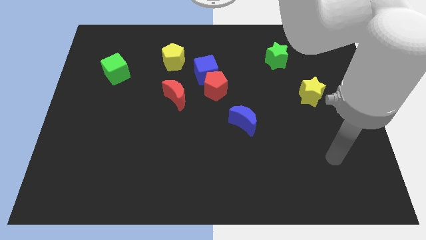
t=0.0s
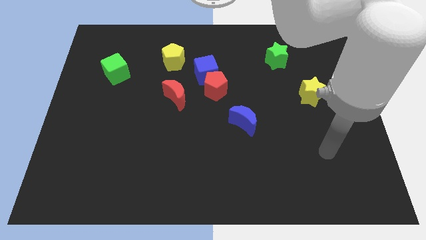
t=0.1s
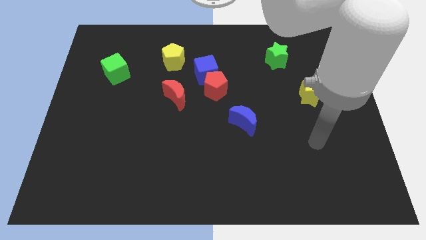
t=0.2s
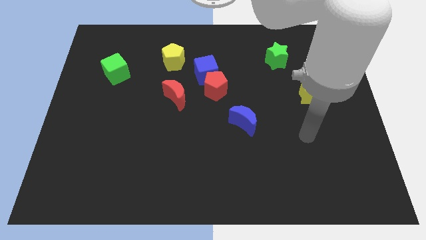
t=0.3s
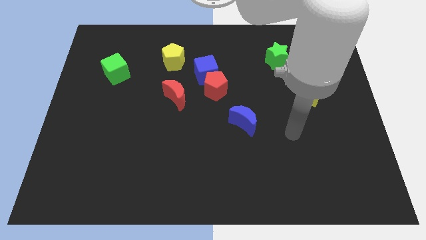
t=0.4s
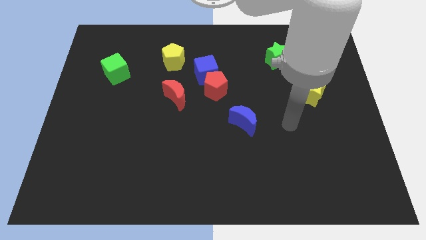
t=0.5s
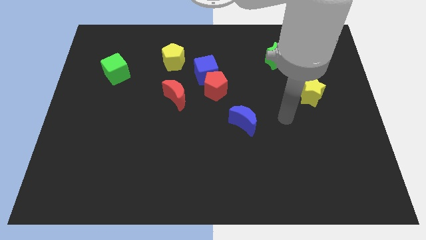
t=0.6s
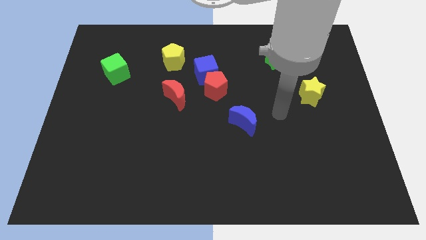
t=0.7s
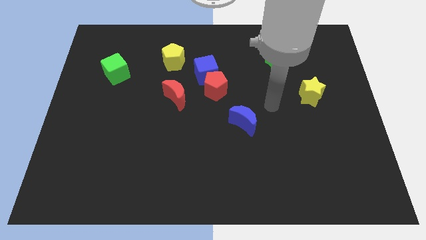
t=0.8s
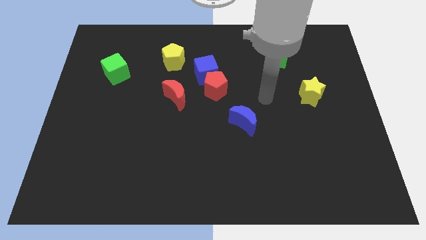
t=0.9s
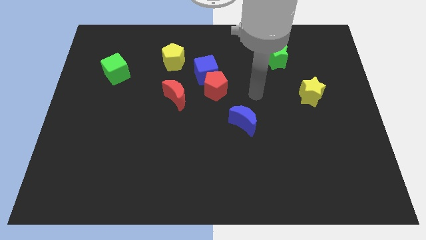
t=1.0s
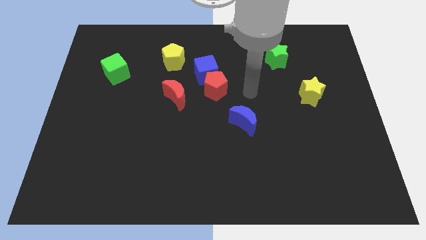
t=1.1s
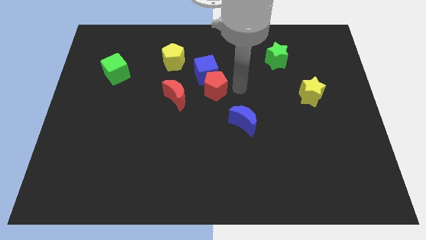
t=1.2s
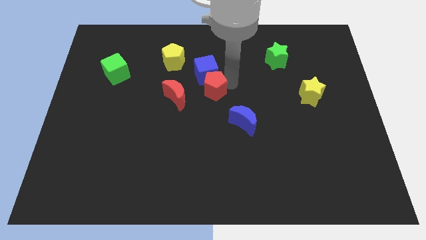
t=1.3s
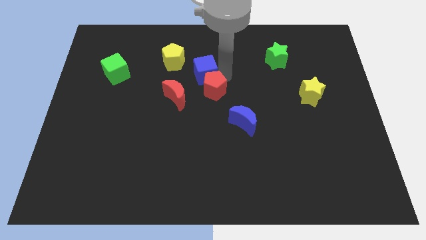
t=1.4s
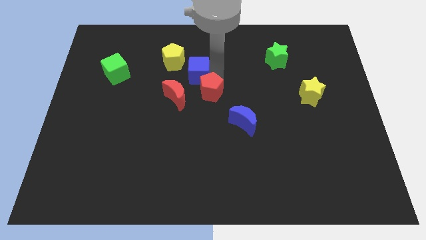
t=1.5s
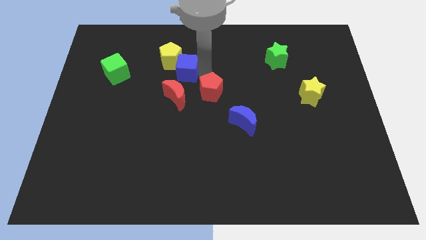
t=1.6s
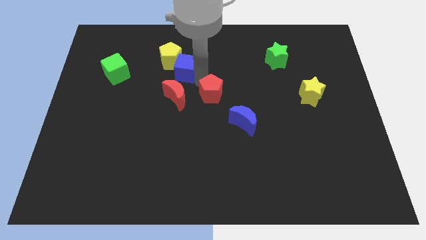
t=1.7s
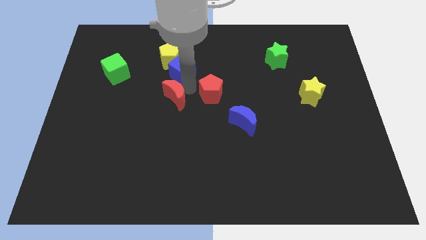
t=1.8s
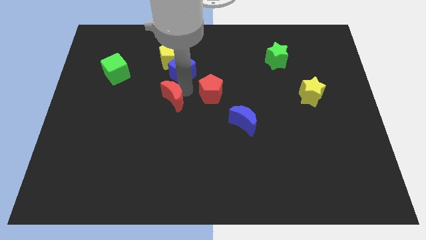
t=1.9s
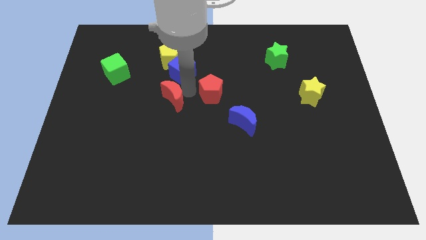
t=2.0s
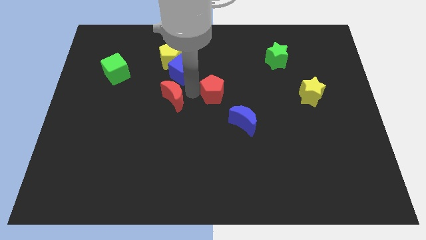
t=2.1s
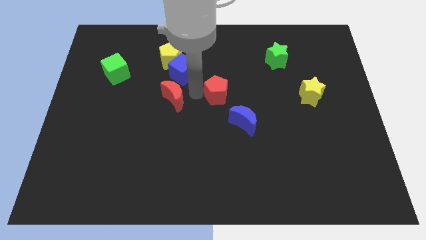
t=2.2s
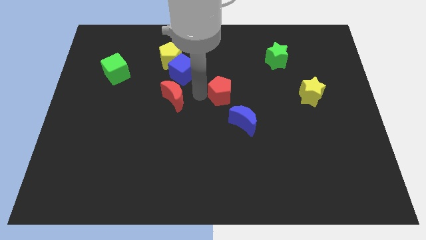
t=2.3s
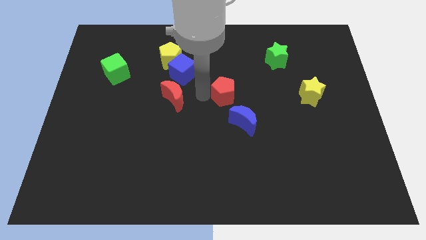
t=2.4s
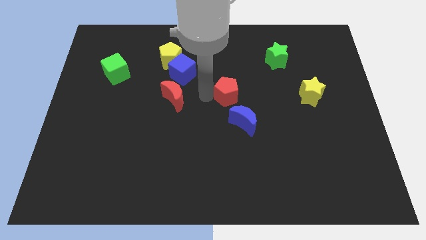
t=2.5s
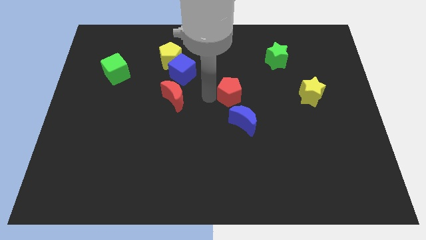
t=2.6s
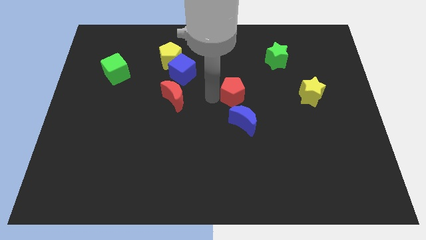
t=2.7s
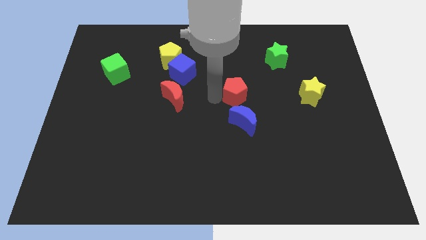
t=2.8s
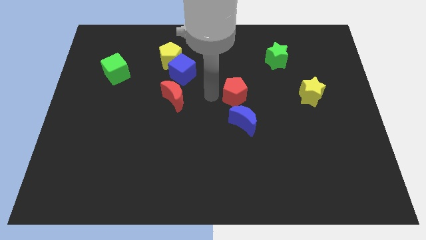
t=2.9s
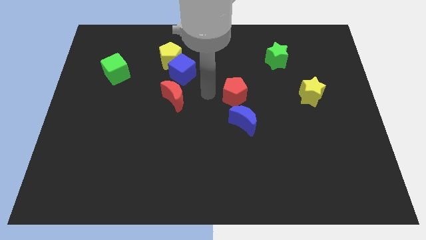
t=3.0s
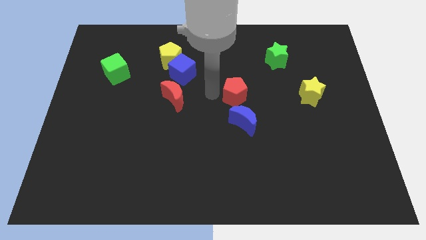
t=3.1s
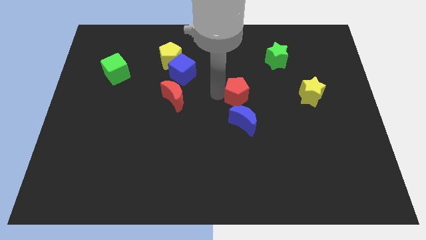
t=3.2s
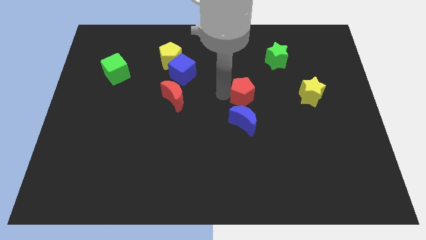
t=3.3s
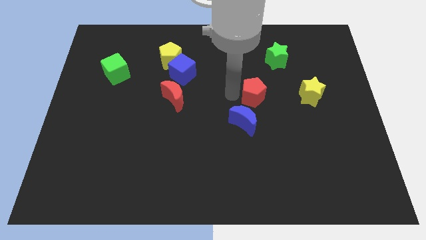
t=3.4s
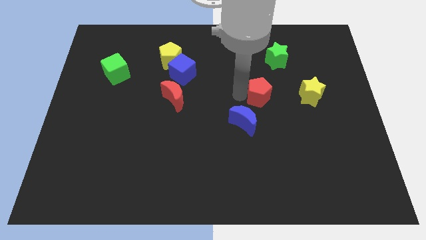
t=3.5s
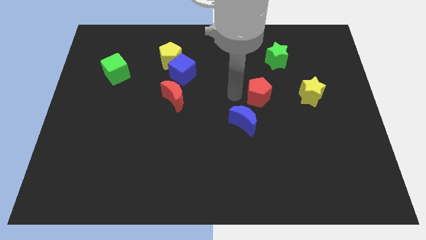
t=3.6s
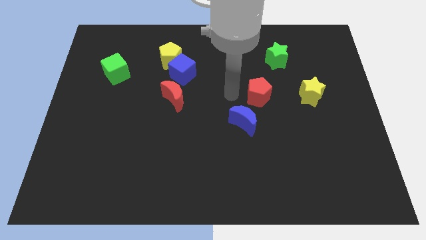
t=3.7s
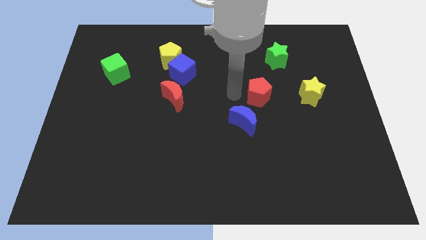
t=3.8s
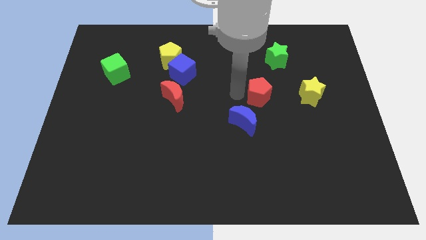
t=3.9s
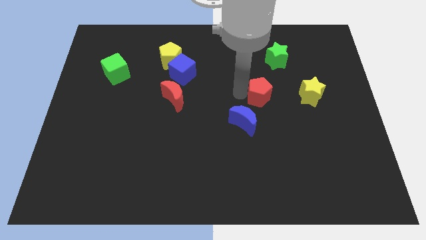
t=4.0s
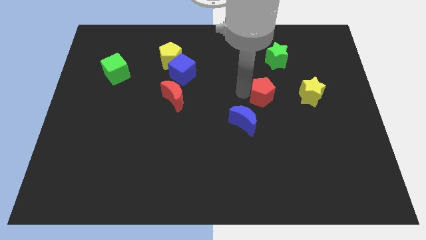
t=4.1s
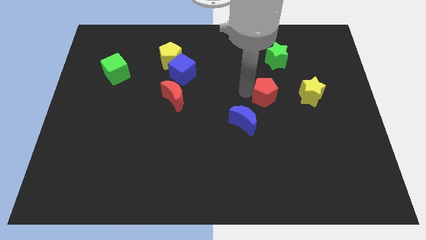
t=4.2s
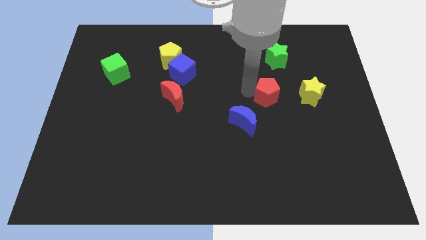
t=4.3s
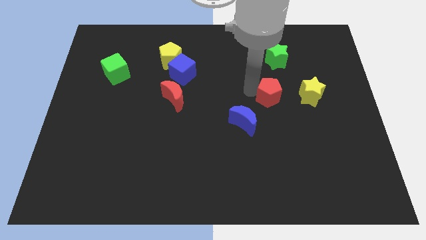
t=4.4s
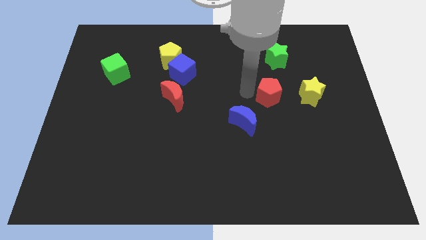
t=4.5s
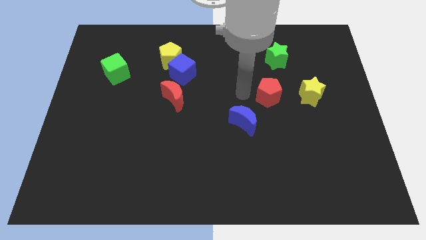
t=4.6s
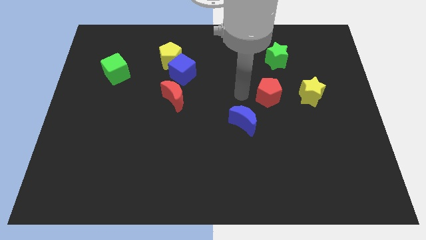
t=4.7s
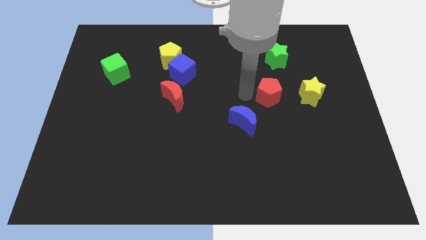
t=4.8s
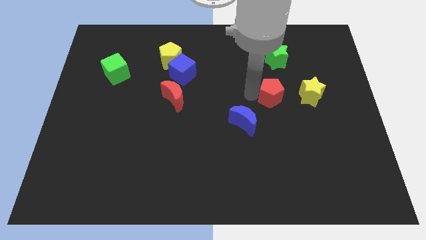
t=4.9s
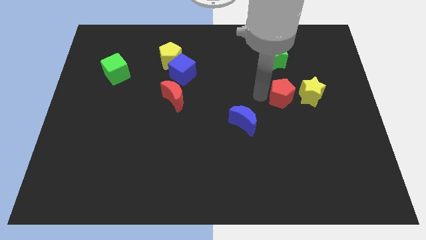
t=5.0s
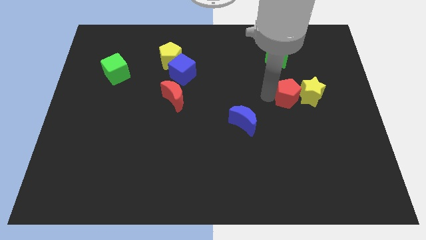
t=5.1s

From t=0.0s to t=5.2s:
move the red pentagon to the yellow star

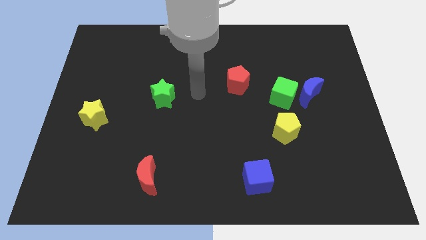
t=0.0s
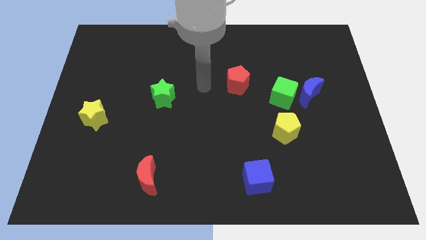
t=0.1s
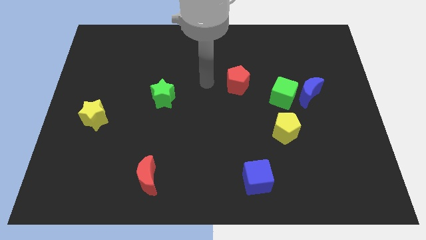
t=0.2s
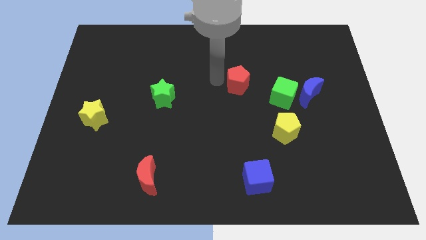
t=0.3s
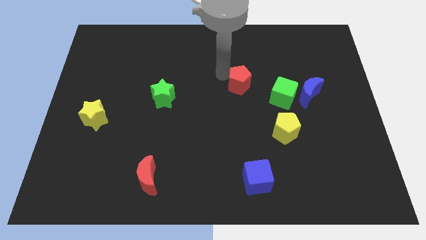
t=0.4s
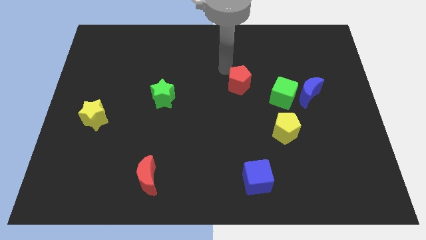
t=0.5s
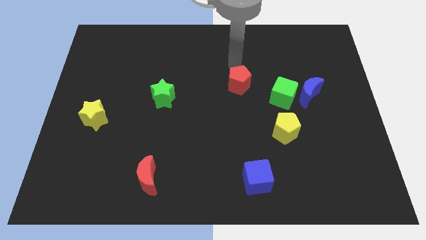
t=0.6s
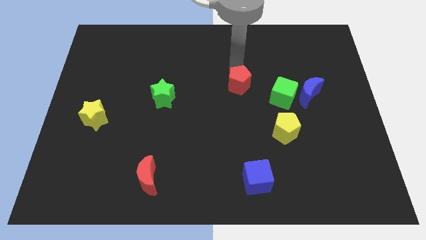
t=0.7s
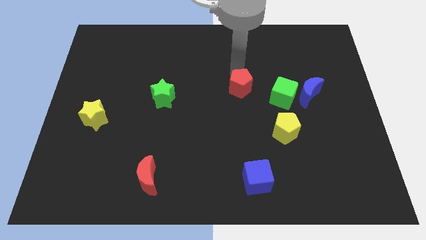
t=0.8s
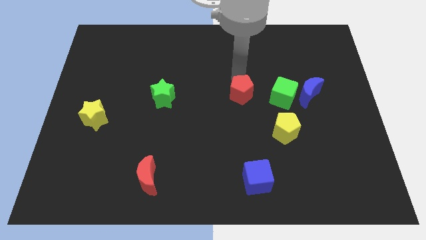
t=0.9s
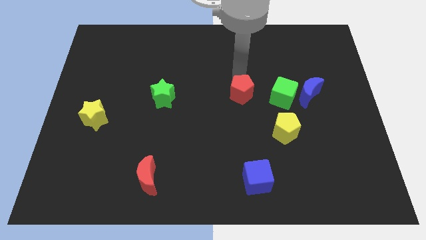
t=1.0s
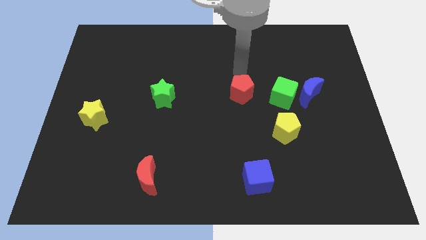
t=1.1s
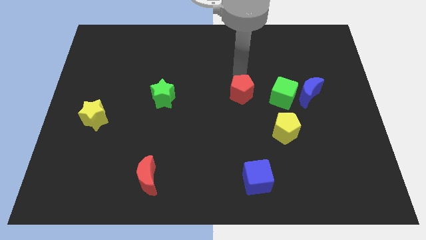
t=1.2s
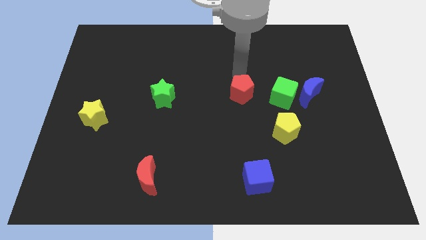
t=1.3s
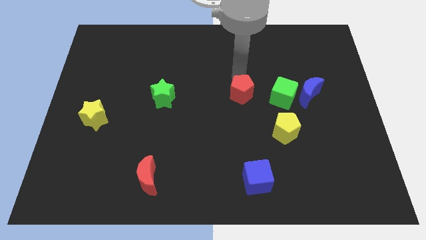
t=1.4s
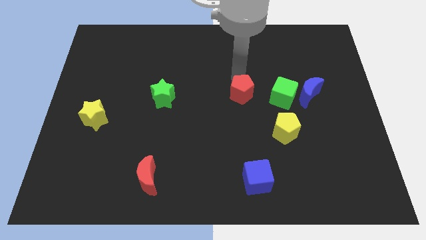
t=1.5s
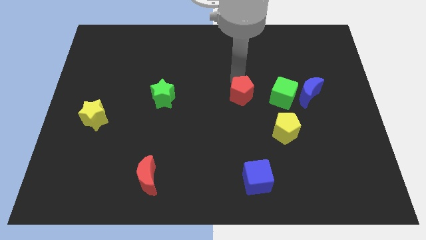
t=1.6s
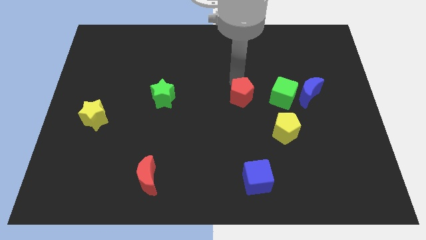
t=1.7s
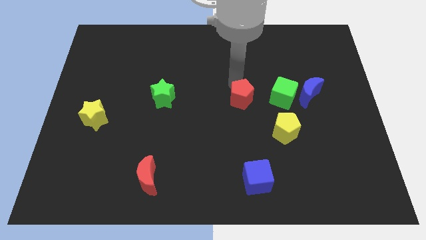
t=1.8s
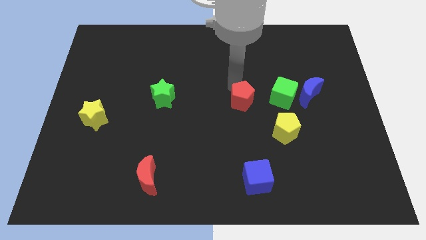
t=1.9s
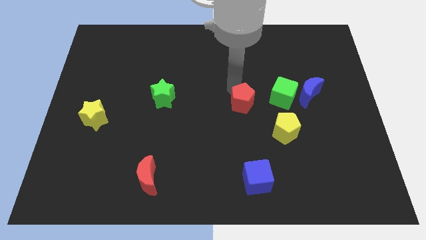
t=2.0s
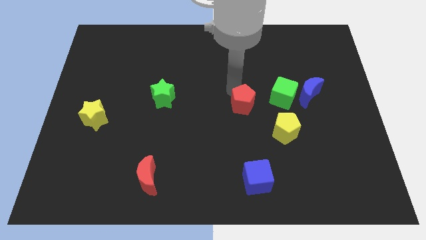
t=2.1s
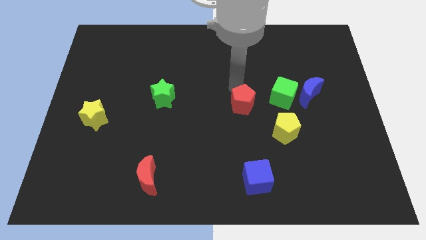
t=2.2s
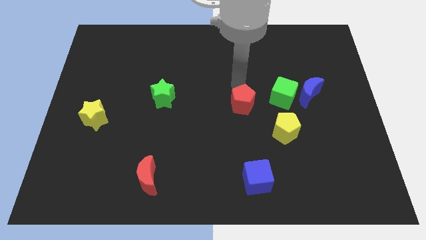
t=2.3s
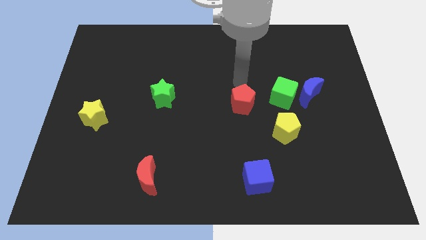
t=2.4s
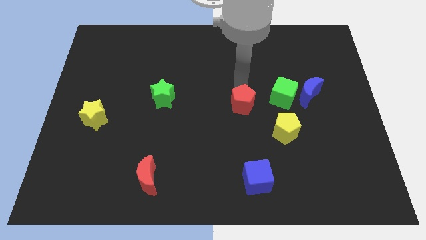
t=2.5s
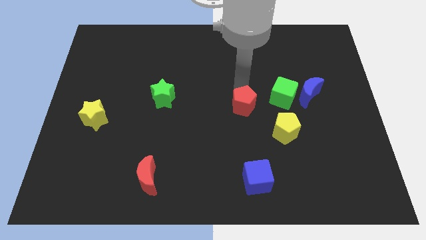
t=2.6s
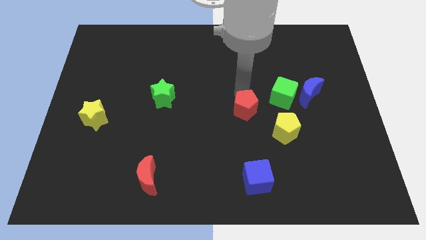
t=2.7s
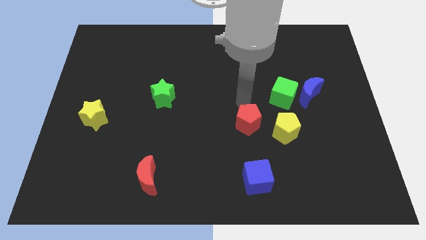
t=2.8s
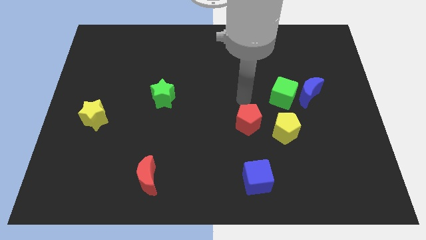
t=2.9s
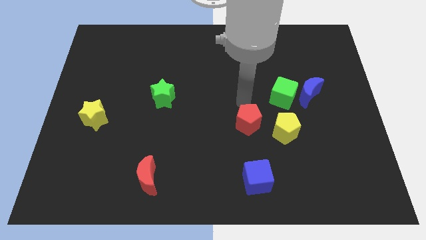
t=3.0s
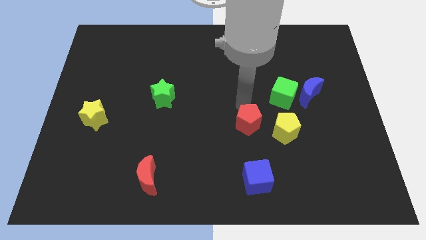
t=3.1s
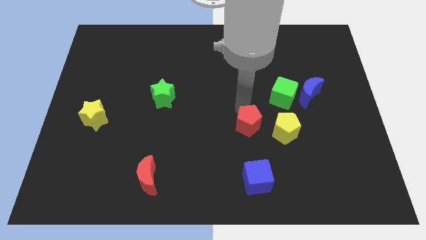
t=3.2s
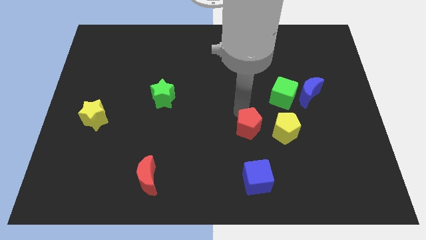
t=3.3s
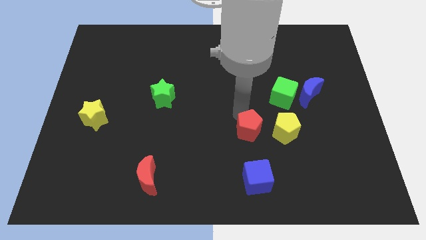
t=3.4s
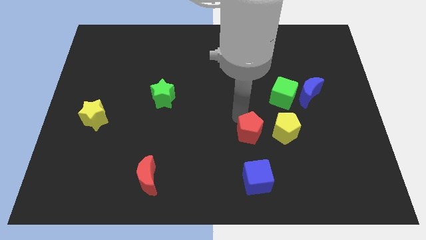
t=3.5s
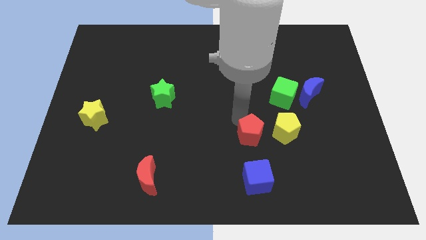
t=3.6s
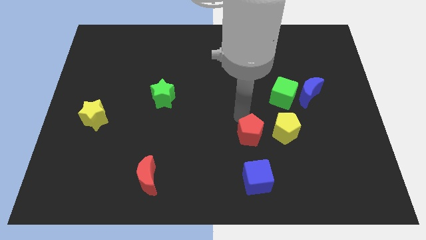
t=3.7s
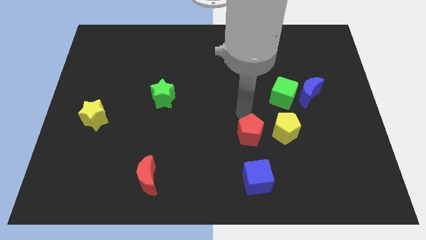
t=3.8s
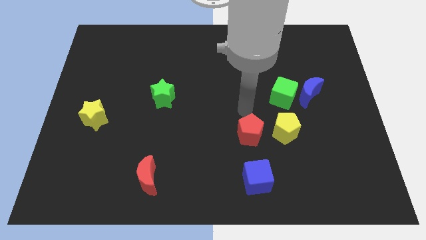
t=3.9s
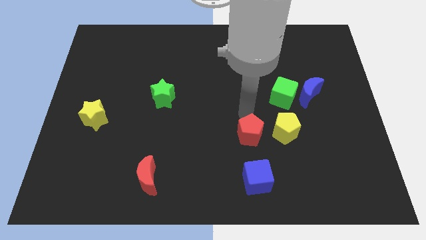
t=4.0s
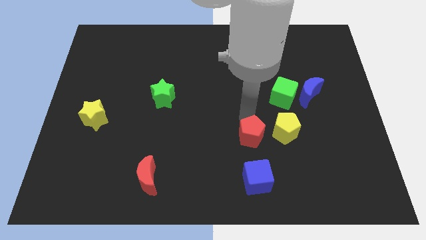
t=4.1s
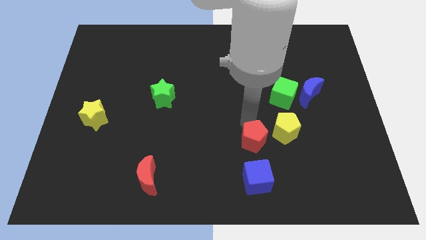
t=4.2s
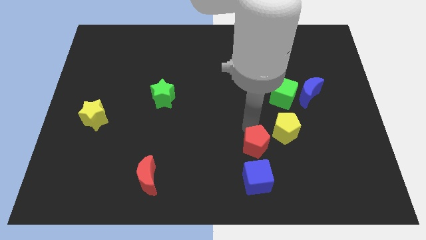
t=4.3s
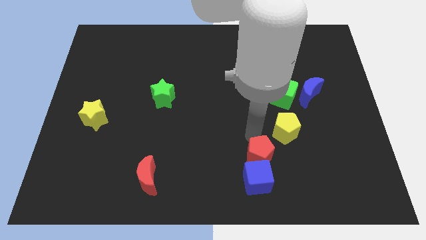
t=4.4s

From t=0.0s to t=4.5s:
push the red pentagon next to the blue cube
